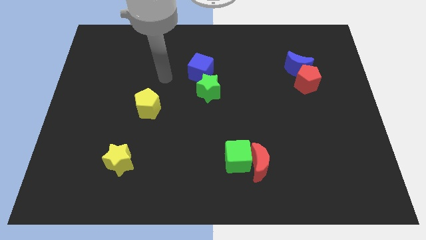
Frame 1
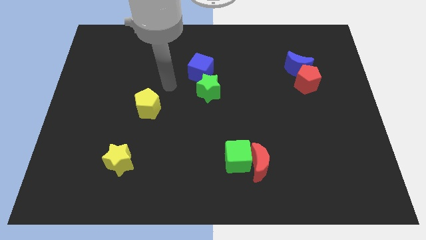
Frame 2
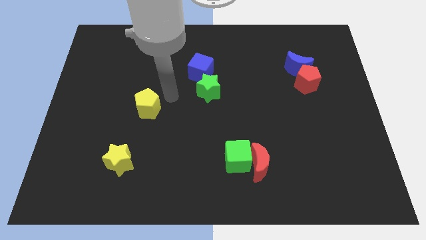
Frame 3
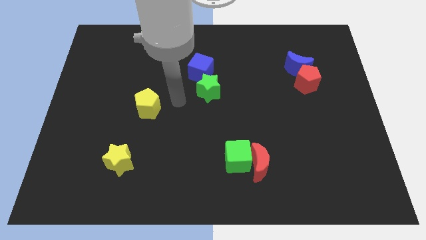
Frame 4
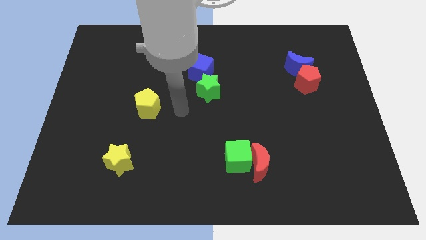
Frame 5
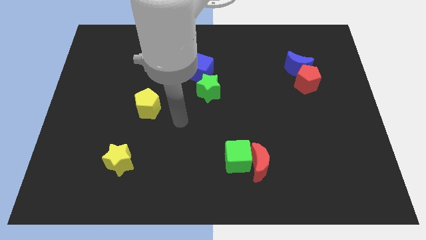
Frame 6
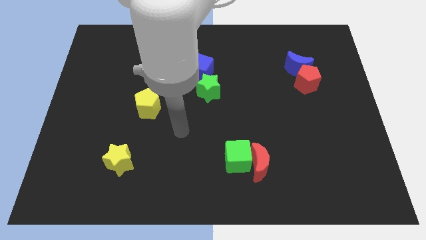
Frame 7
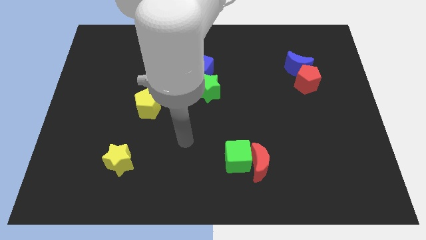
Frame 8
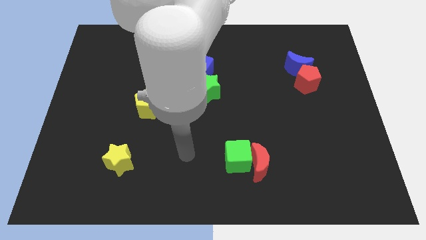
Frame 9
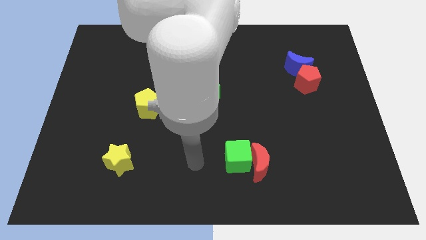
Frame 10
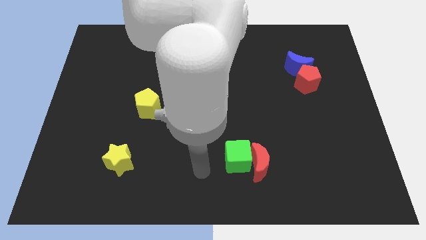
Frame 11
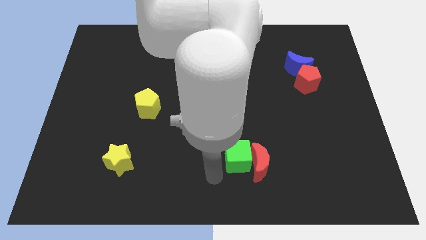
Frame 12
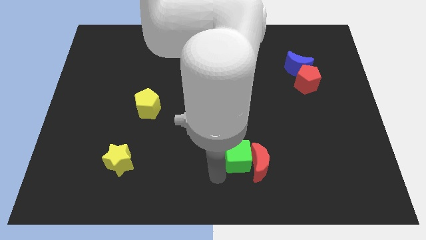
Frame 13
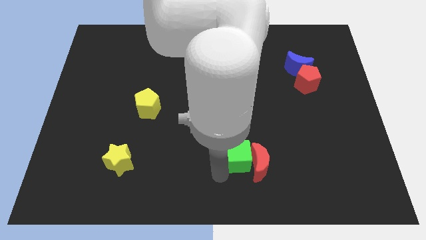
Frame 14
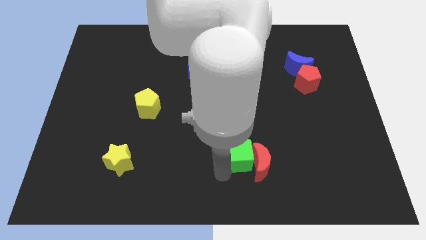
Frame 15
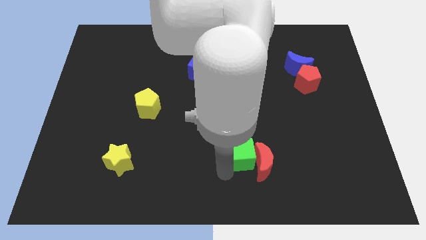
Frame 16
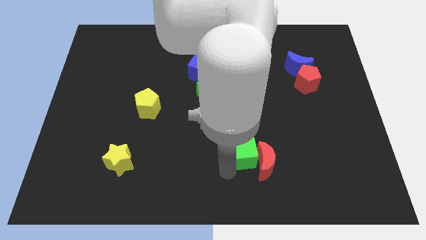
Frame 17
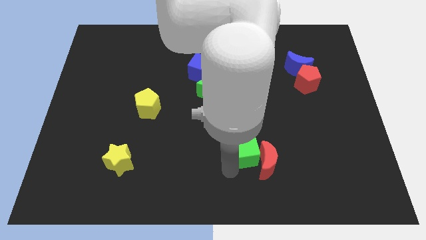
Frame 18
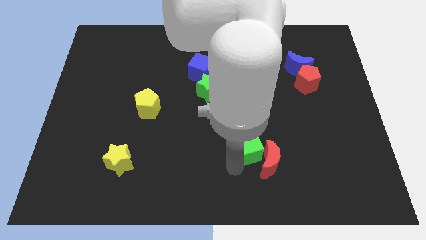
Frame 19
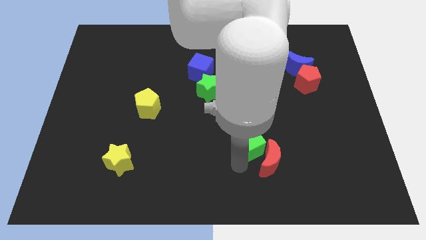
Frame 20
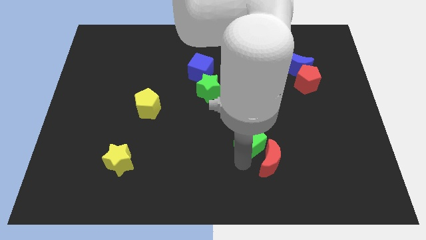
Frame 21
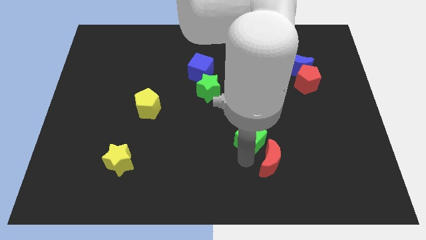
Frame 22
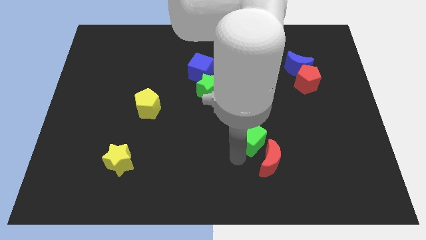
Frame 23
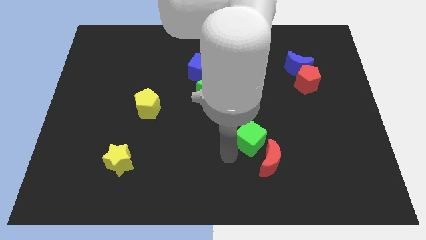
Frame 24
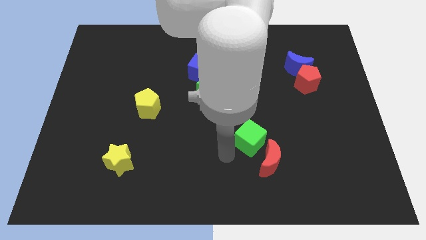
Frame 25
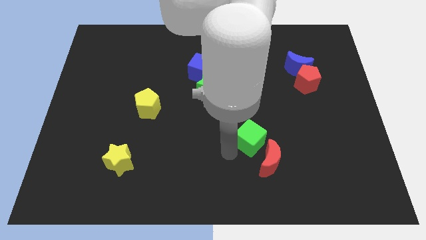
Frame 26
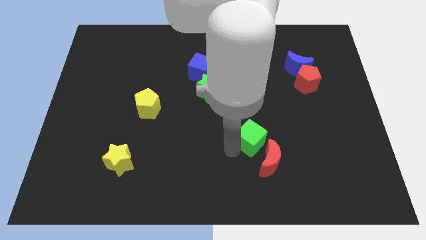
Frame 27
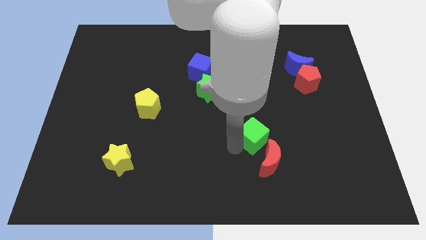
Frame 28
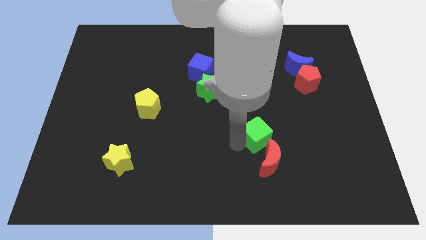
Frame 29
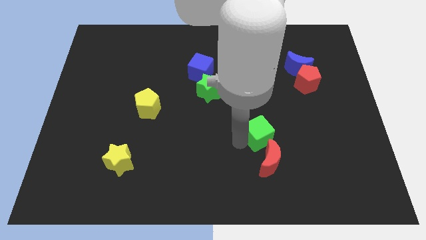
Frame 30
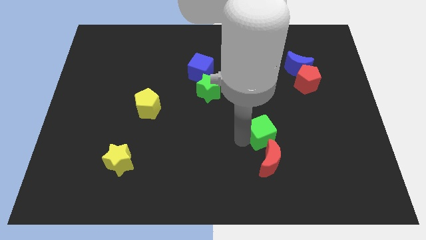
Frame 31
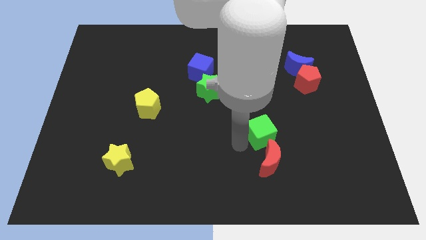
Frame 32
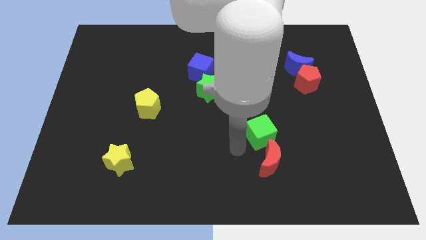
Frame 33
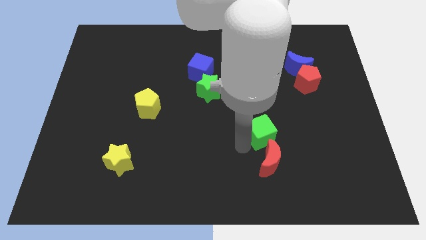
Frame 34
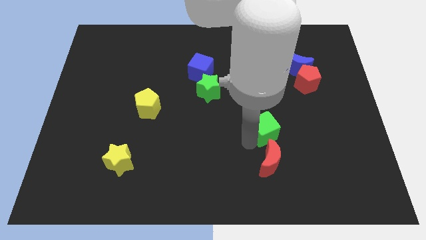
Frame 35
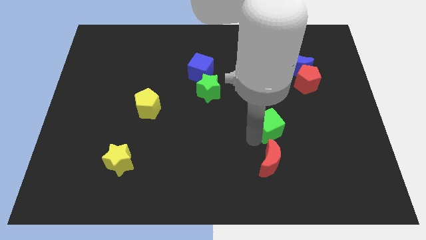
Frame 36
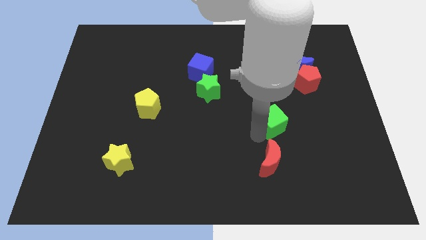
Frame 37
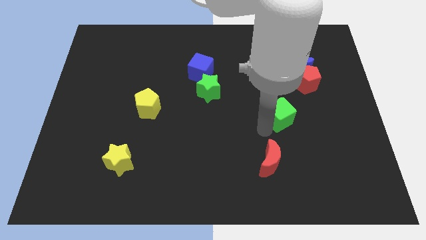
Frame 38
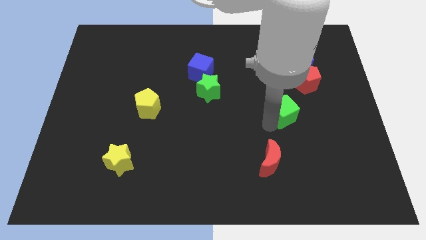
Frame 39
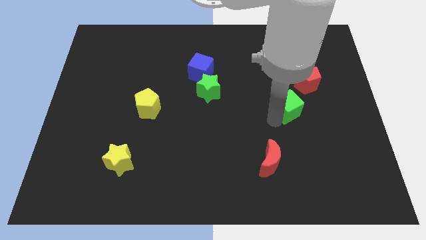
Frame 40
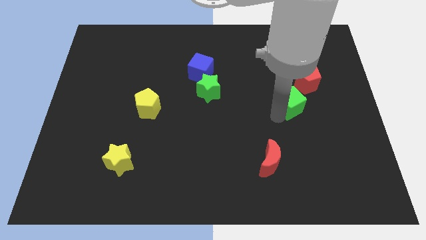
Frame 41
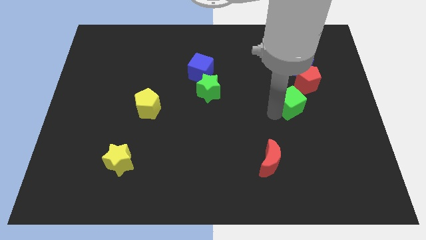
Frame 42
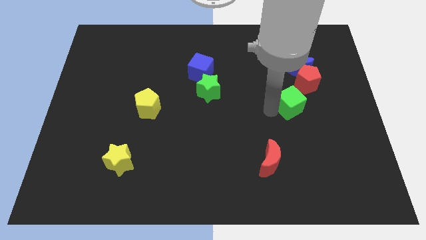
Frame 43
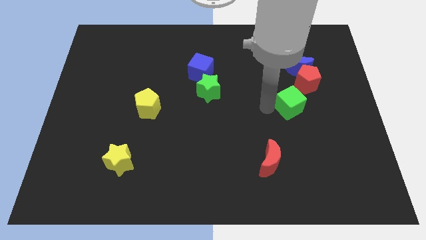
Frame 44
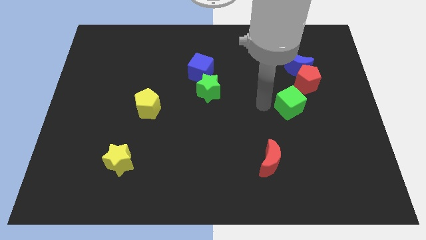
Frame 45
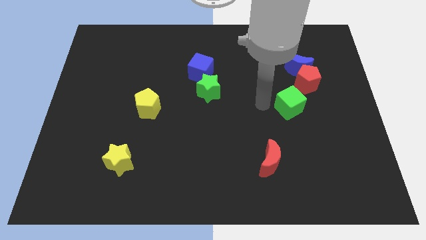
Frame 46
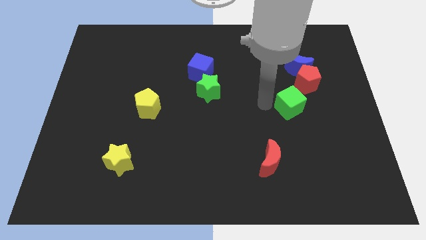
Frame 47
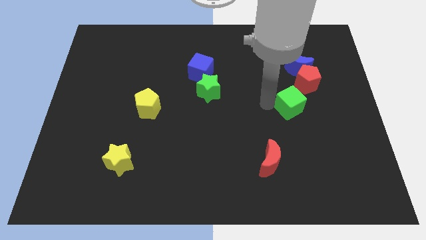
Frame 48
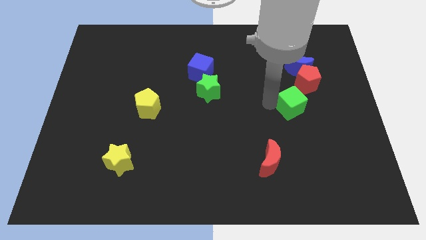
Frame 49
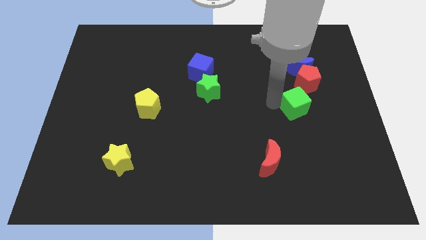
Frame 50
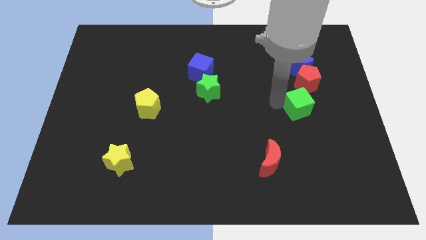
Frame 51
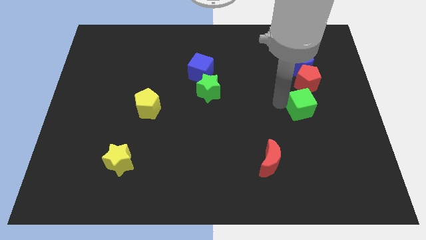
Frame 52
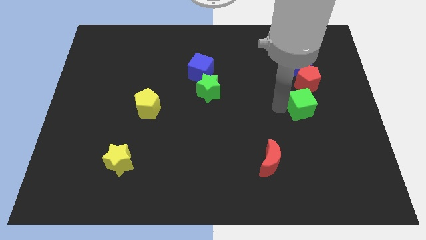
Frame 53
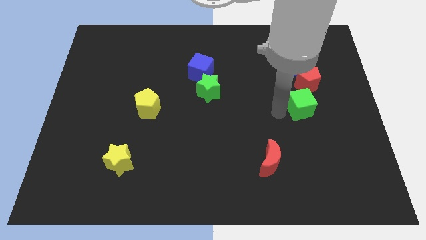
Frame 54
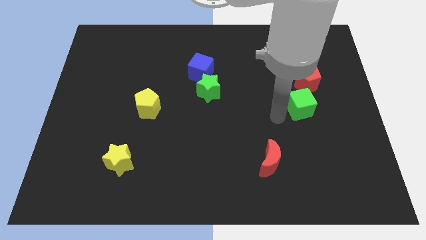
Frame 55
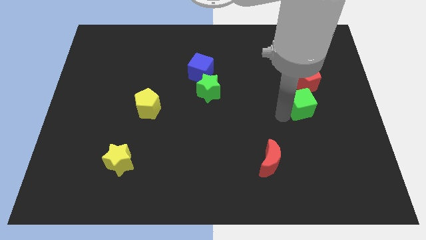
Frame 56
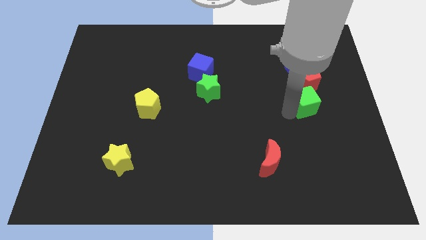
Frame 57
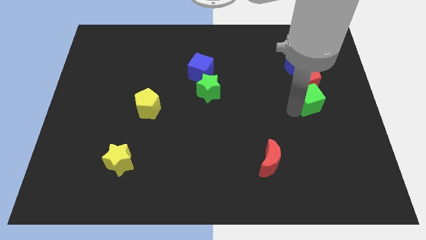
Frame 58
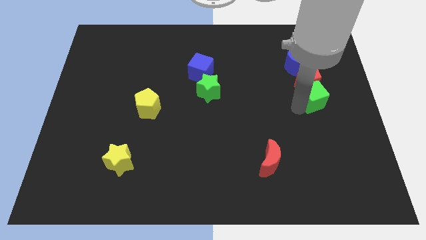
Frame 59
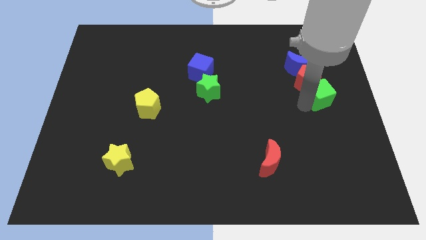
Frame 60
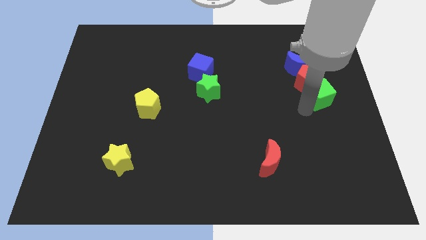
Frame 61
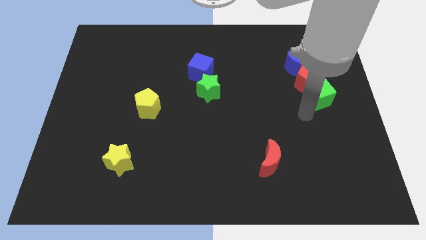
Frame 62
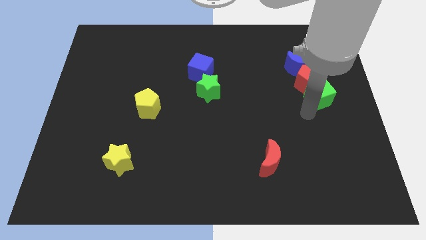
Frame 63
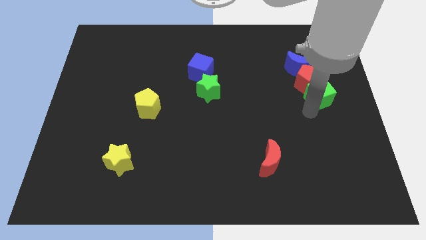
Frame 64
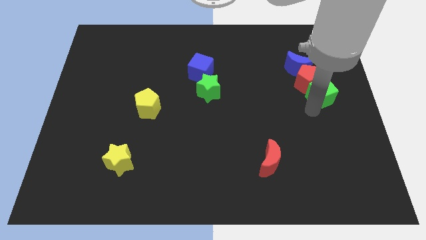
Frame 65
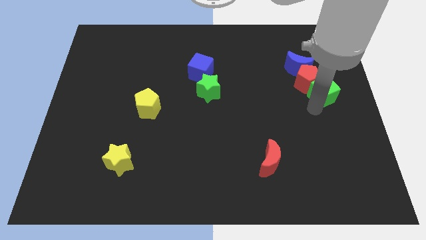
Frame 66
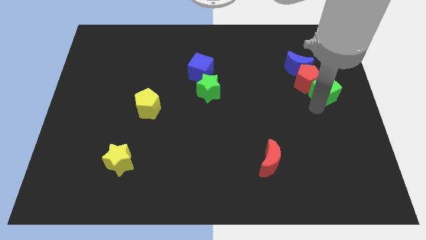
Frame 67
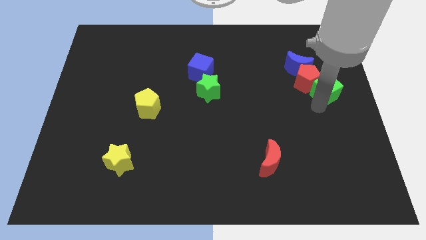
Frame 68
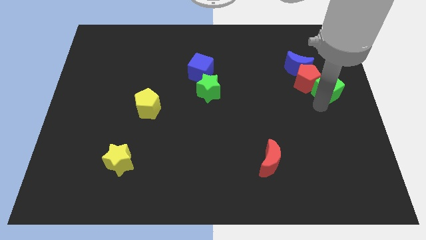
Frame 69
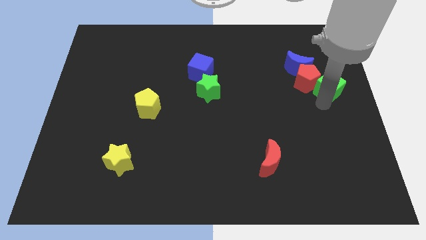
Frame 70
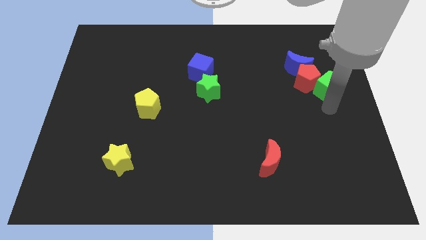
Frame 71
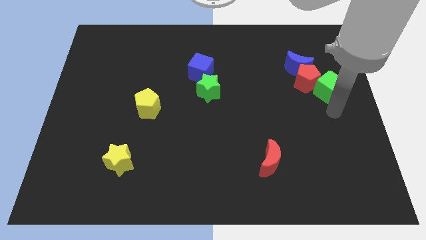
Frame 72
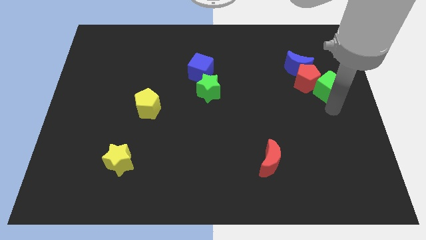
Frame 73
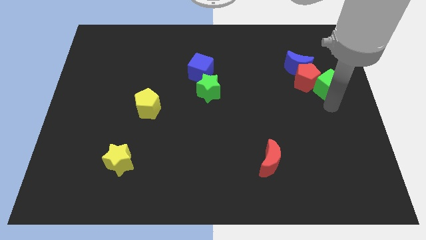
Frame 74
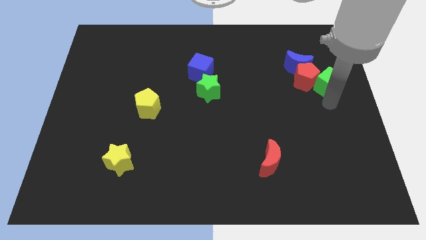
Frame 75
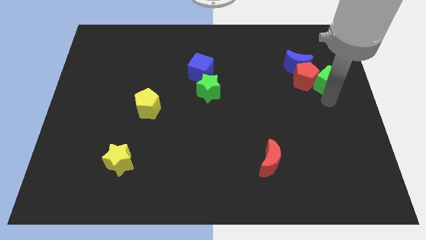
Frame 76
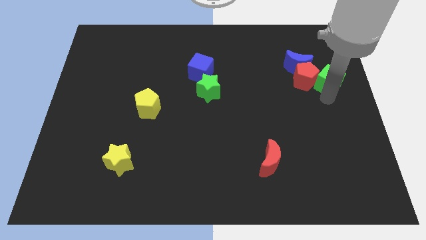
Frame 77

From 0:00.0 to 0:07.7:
put the green cube to the top right side of the red pentagon
